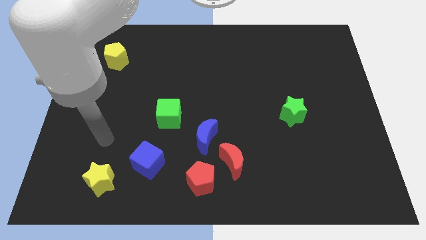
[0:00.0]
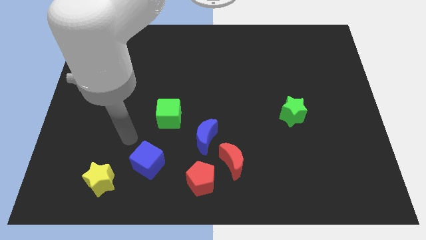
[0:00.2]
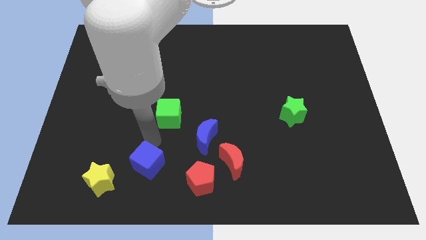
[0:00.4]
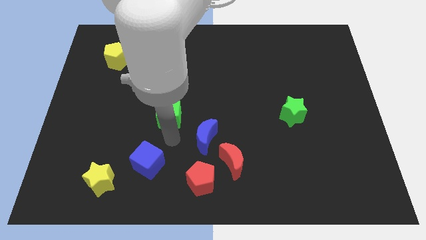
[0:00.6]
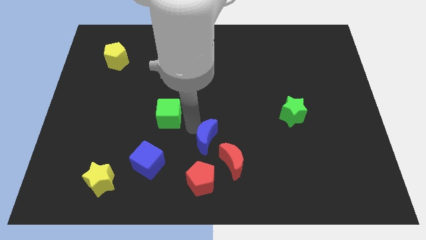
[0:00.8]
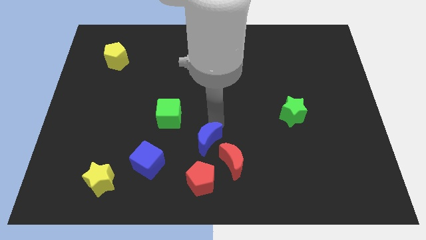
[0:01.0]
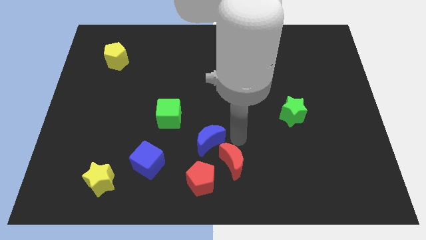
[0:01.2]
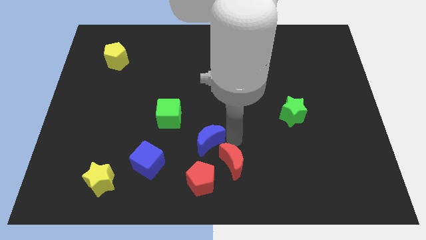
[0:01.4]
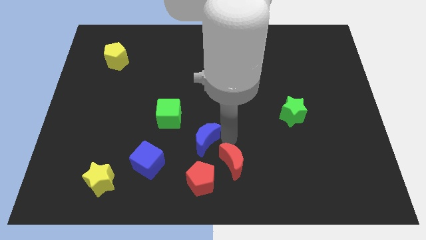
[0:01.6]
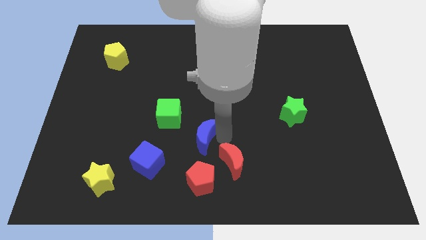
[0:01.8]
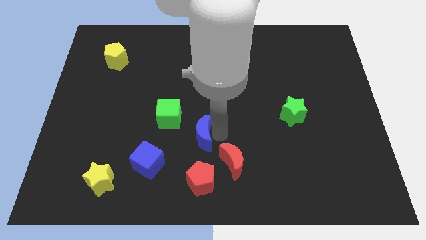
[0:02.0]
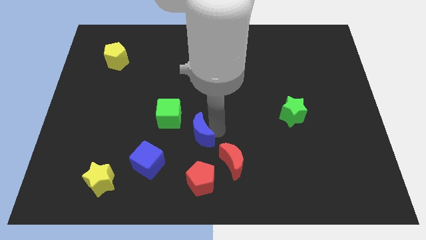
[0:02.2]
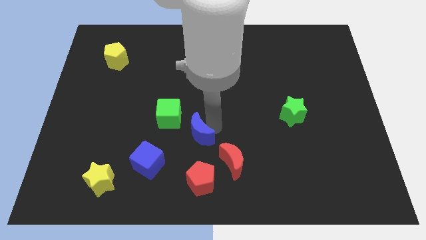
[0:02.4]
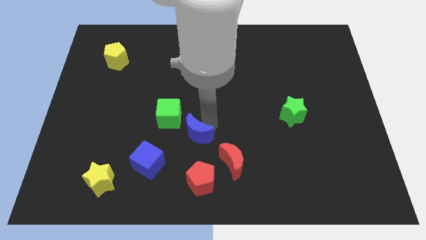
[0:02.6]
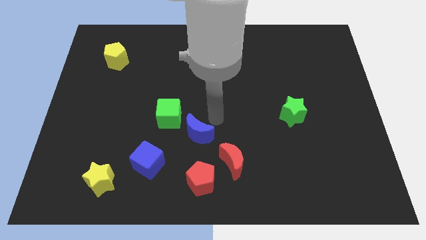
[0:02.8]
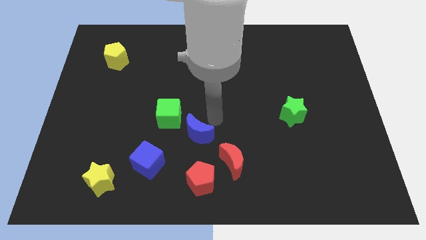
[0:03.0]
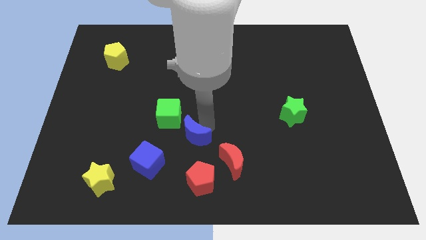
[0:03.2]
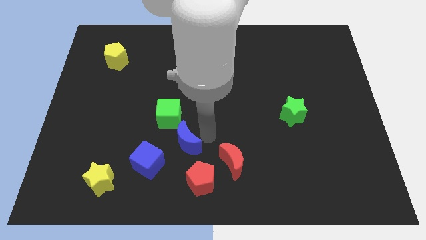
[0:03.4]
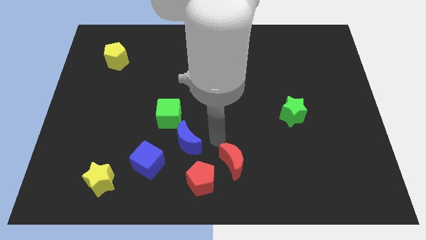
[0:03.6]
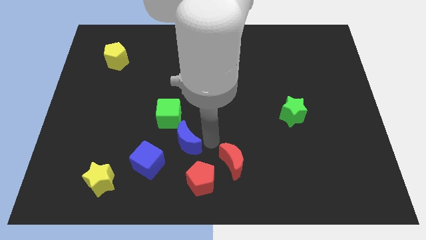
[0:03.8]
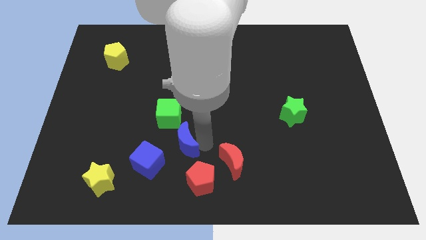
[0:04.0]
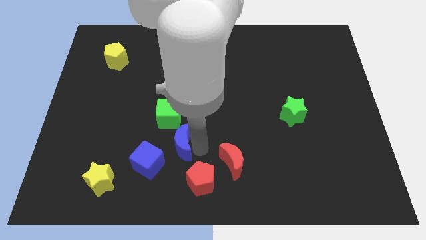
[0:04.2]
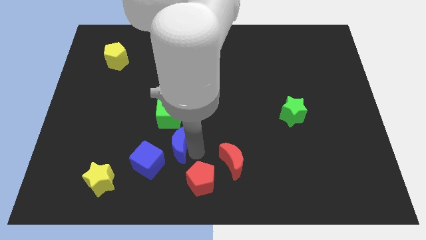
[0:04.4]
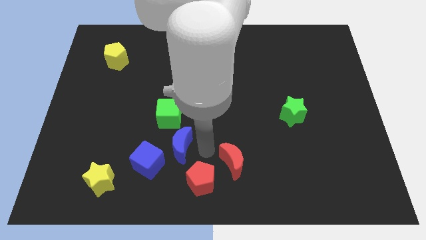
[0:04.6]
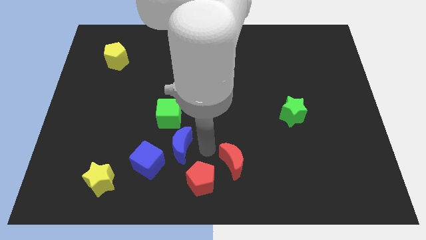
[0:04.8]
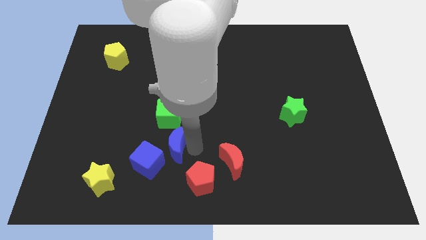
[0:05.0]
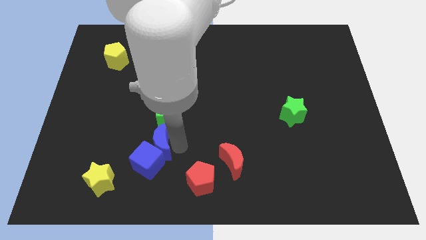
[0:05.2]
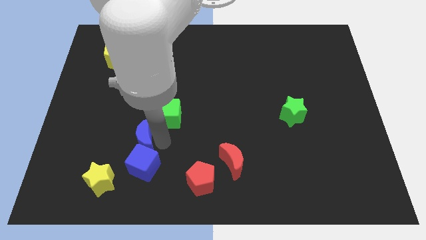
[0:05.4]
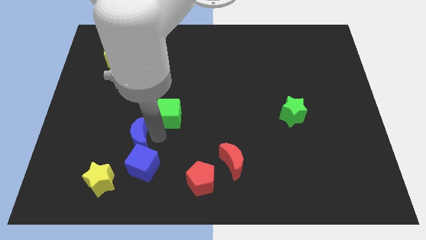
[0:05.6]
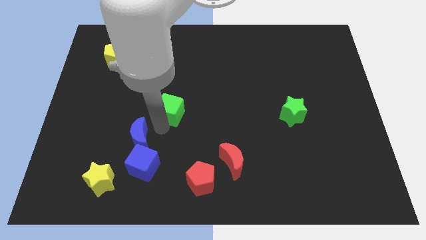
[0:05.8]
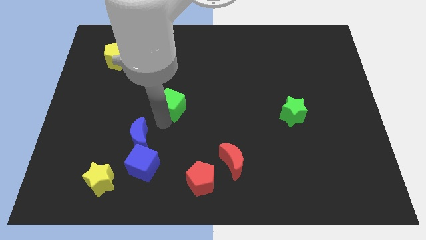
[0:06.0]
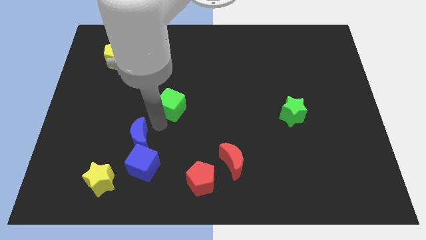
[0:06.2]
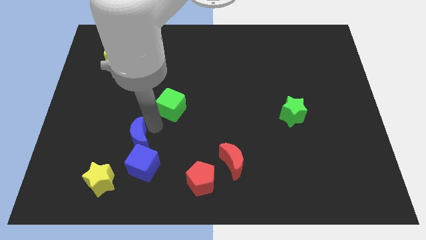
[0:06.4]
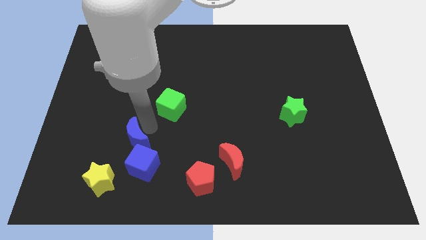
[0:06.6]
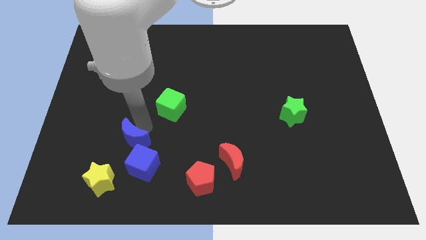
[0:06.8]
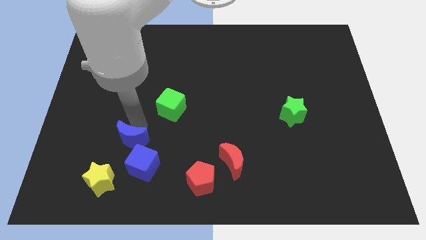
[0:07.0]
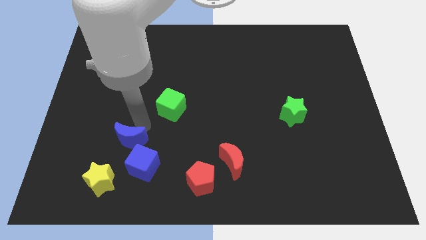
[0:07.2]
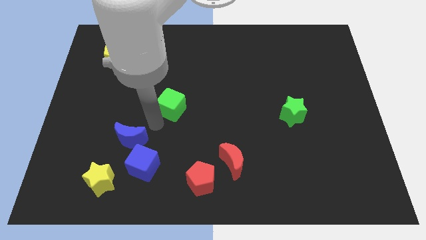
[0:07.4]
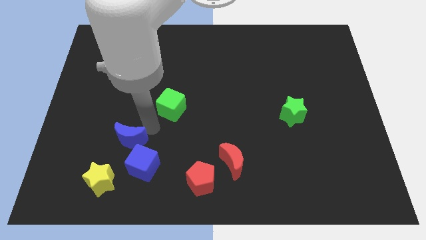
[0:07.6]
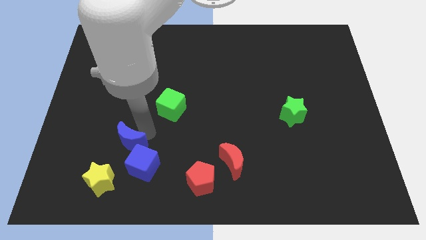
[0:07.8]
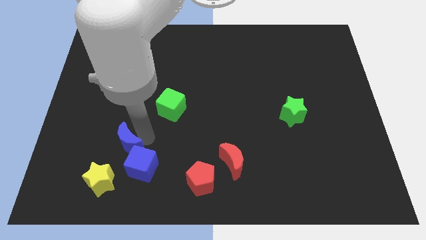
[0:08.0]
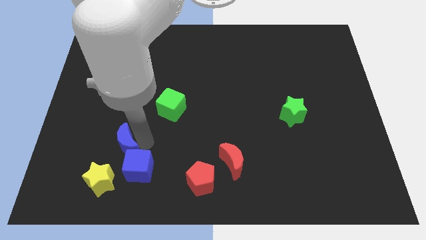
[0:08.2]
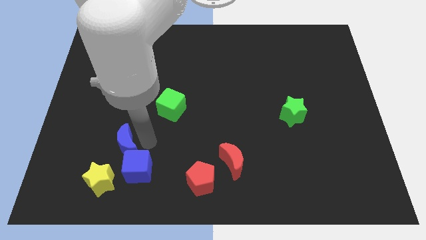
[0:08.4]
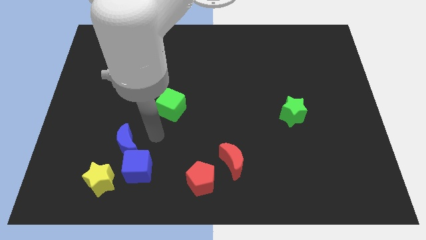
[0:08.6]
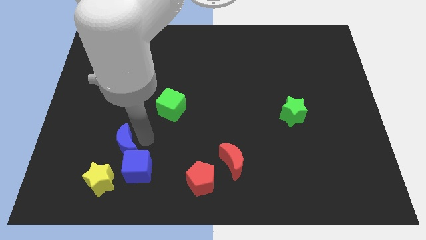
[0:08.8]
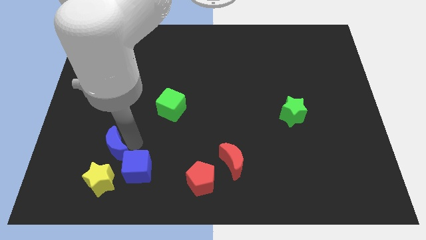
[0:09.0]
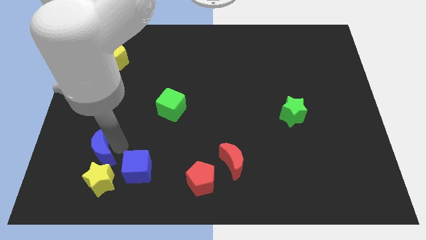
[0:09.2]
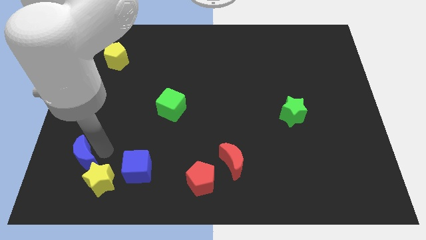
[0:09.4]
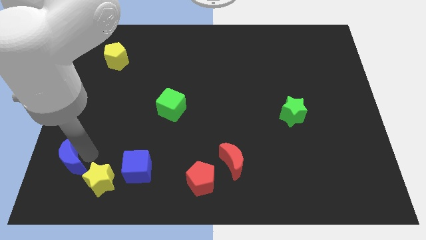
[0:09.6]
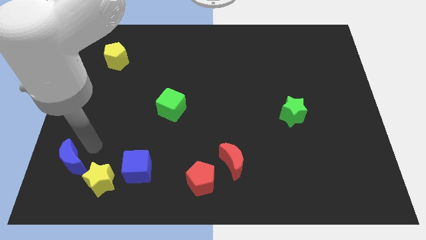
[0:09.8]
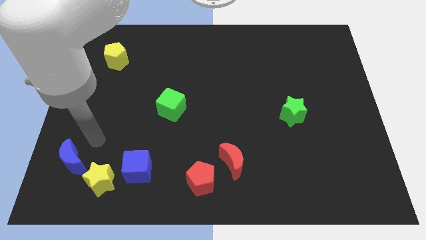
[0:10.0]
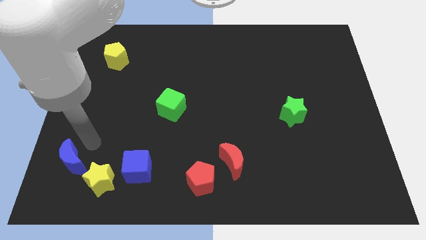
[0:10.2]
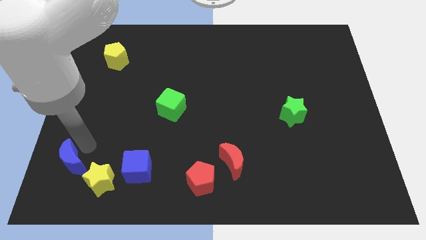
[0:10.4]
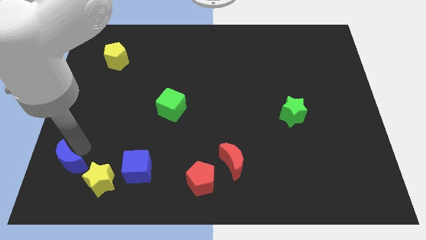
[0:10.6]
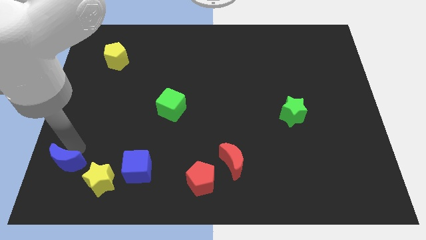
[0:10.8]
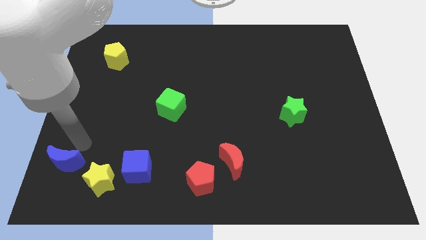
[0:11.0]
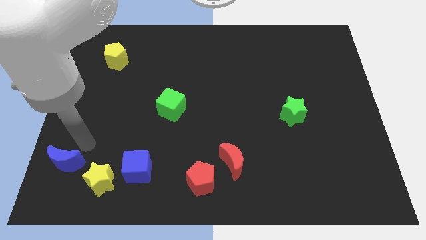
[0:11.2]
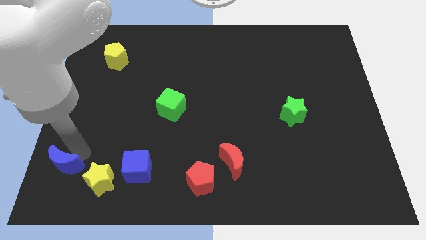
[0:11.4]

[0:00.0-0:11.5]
move the blue moon to the lower left corner
